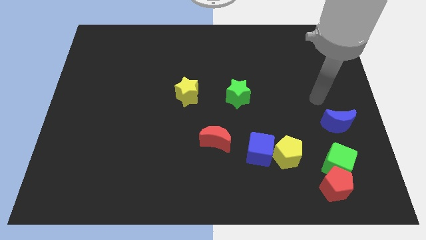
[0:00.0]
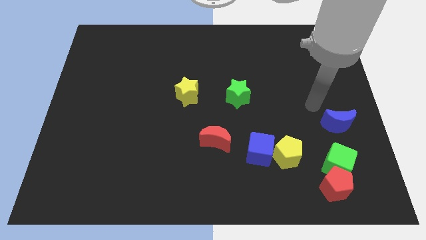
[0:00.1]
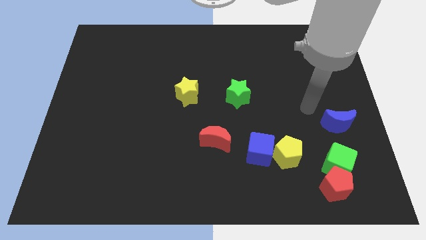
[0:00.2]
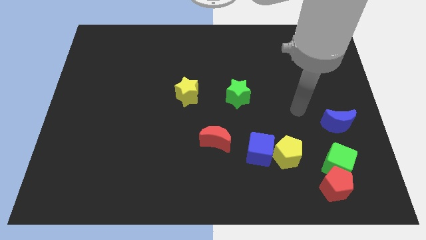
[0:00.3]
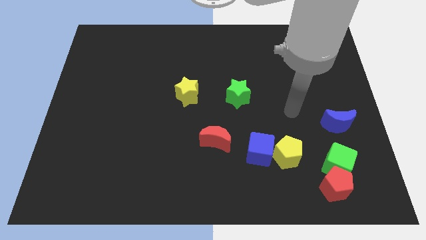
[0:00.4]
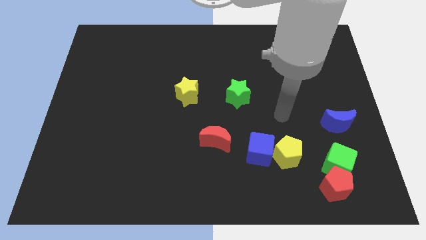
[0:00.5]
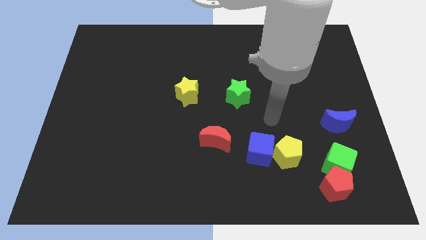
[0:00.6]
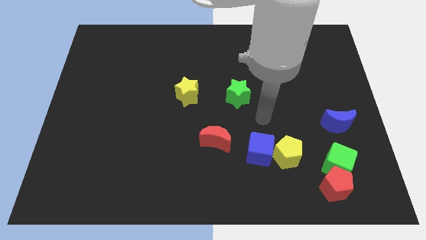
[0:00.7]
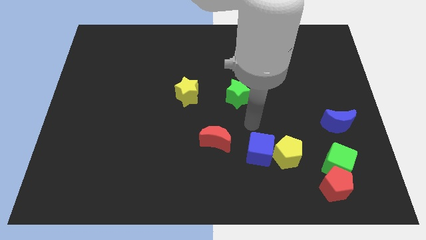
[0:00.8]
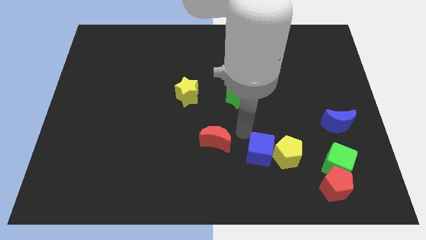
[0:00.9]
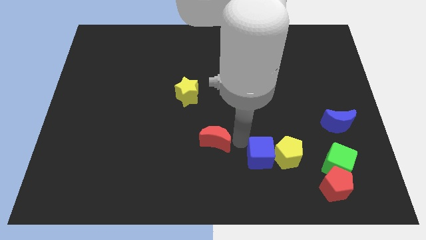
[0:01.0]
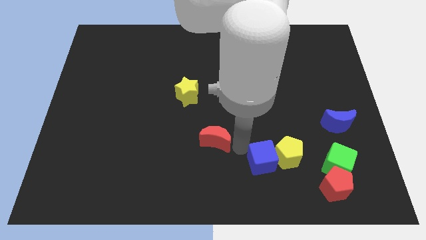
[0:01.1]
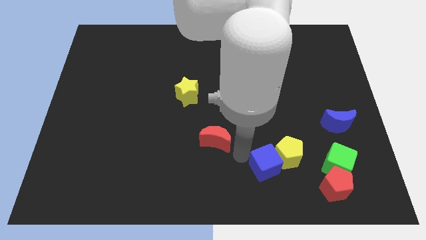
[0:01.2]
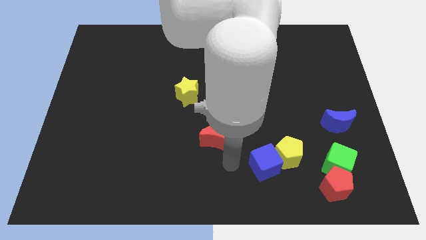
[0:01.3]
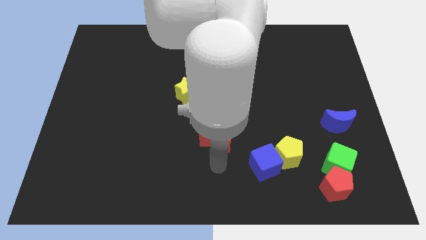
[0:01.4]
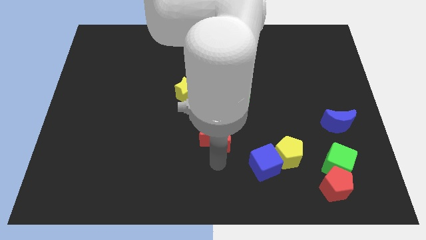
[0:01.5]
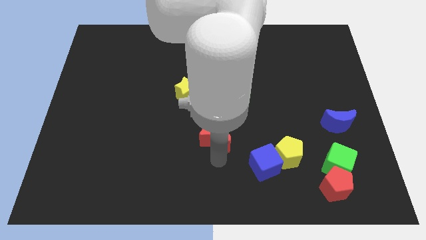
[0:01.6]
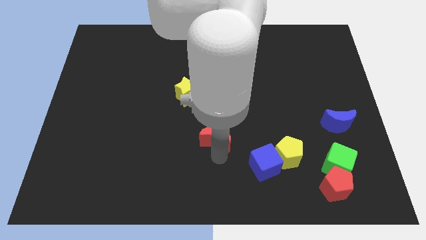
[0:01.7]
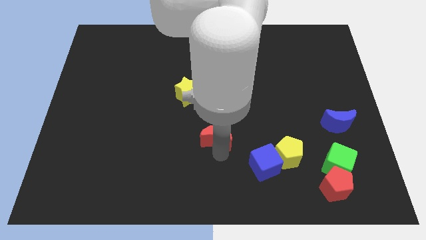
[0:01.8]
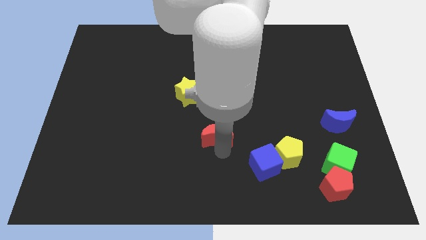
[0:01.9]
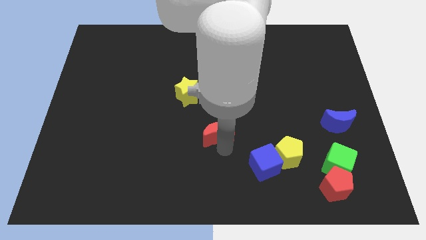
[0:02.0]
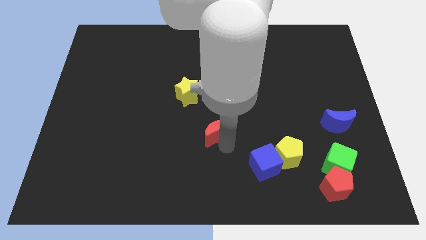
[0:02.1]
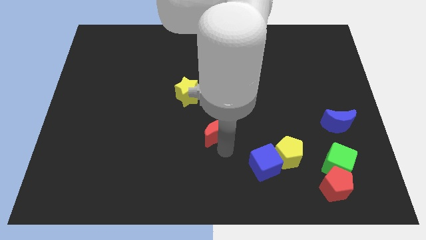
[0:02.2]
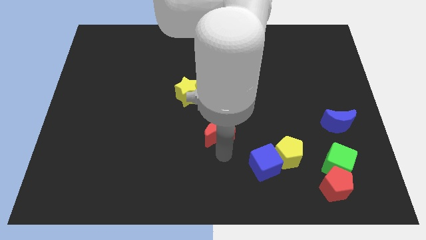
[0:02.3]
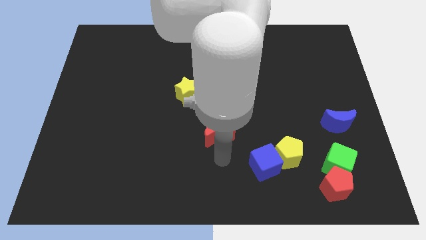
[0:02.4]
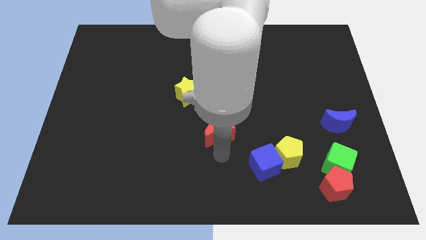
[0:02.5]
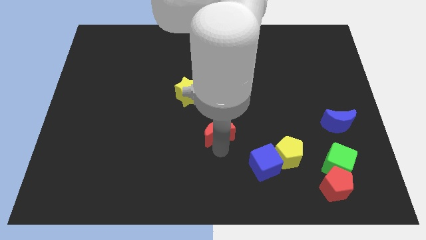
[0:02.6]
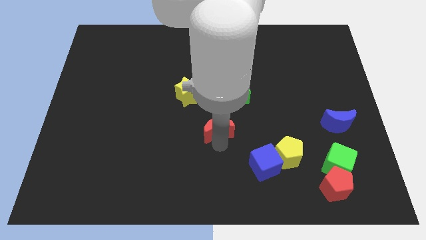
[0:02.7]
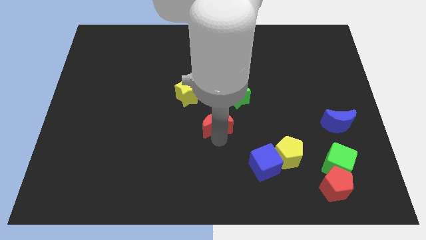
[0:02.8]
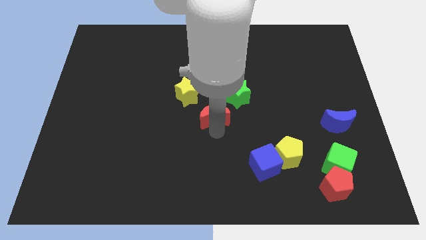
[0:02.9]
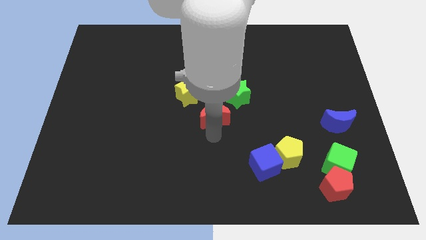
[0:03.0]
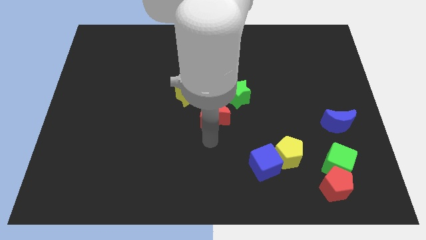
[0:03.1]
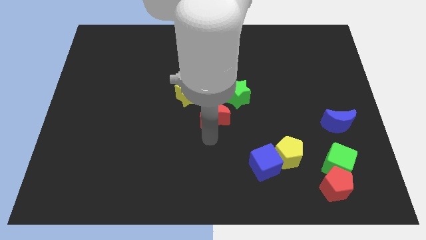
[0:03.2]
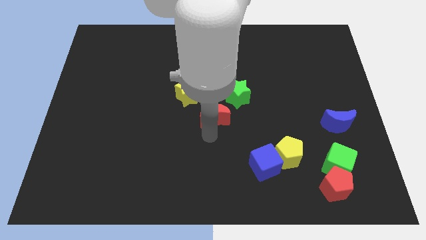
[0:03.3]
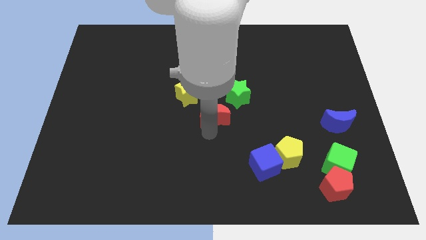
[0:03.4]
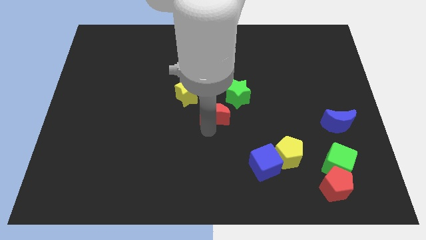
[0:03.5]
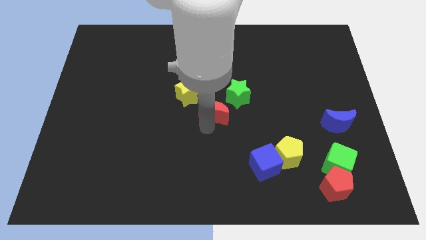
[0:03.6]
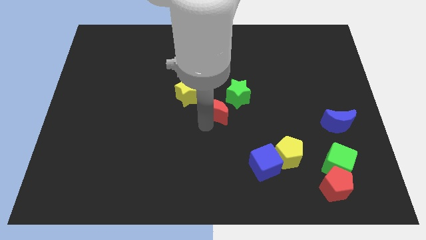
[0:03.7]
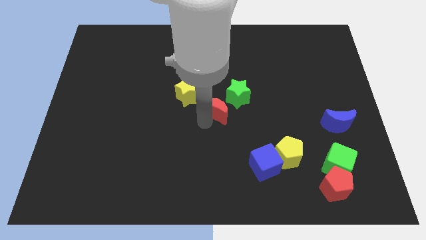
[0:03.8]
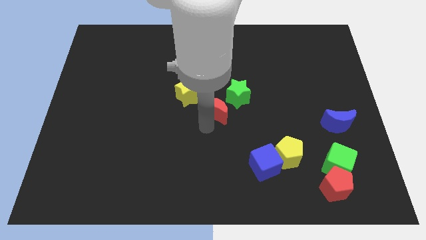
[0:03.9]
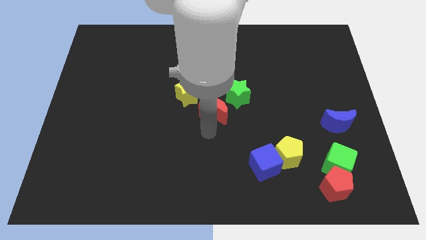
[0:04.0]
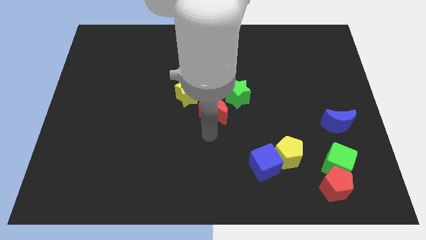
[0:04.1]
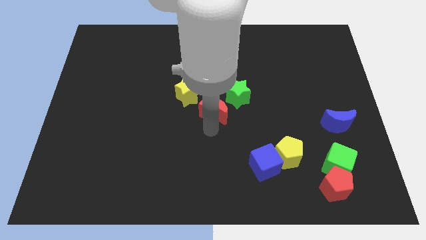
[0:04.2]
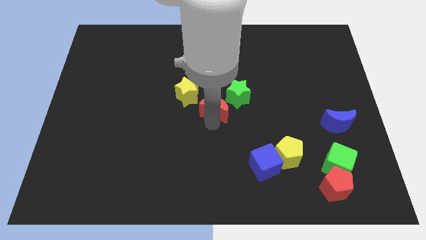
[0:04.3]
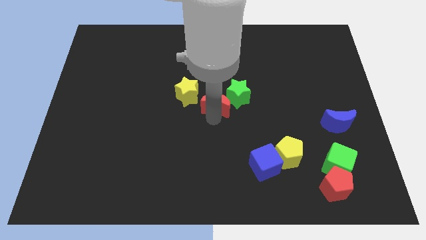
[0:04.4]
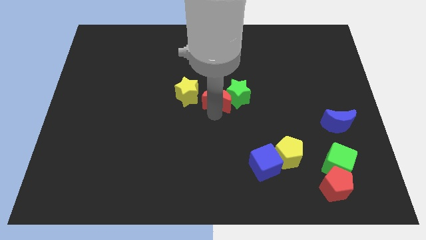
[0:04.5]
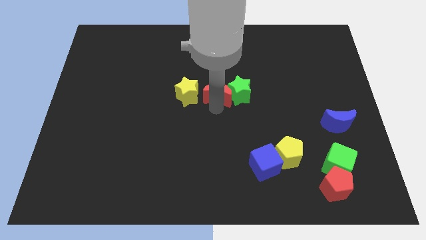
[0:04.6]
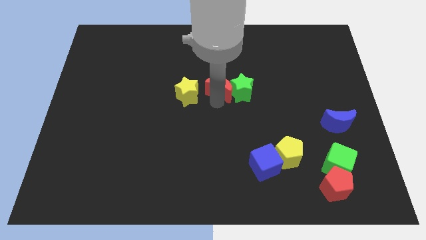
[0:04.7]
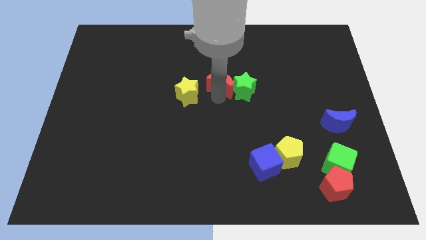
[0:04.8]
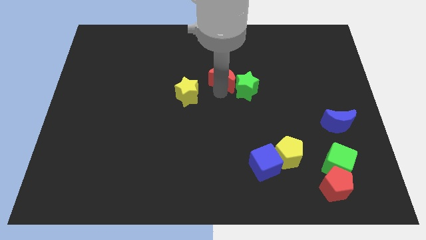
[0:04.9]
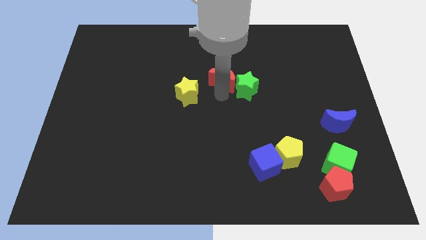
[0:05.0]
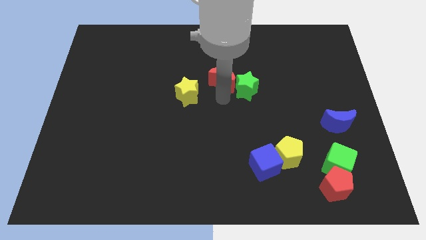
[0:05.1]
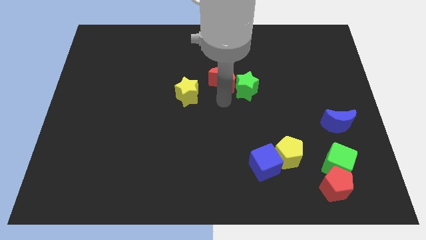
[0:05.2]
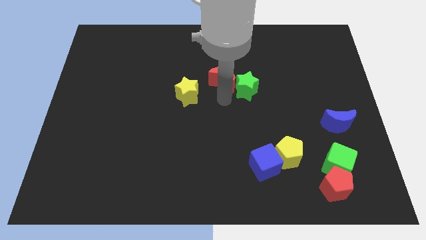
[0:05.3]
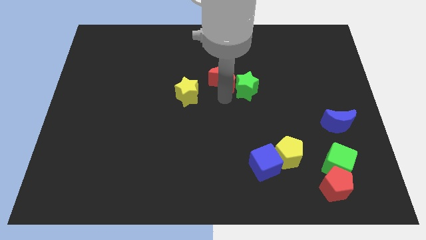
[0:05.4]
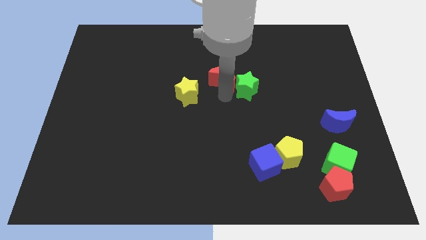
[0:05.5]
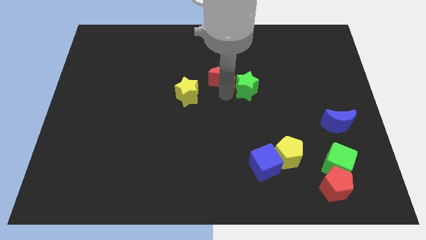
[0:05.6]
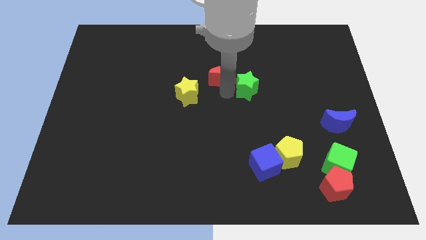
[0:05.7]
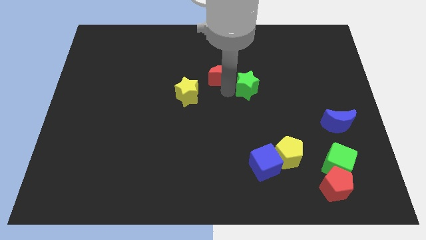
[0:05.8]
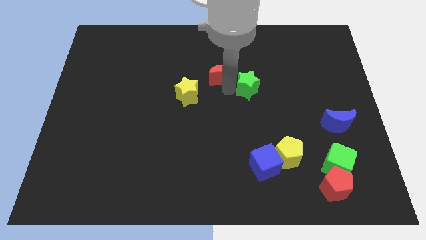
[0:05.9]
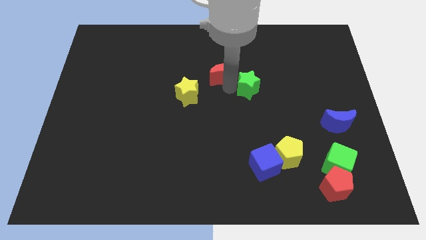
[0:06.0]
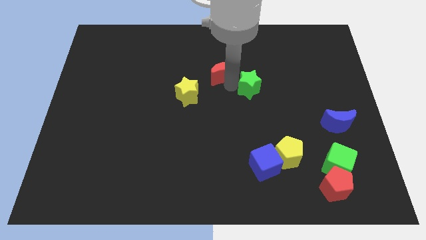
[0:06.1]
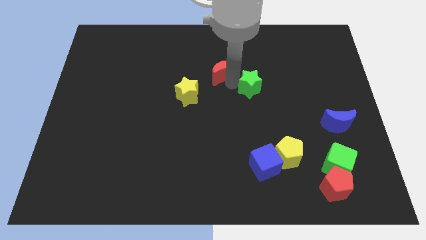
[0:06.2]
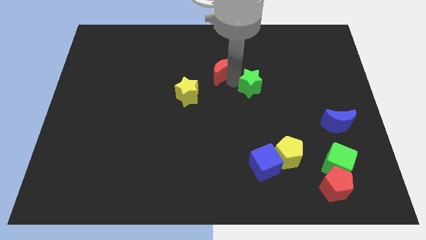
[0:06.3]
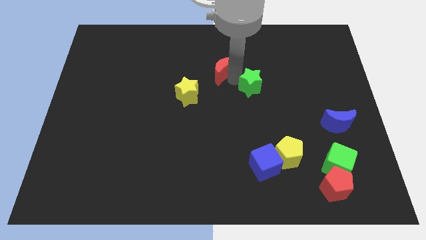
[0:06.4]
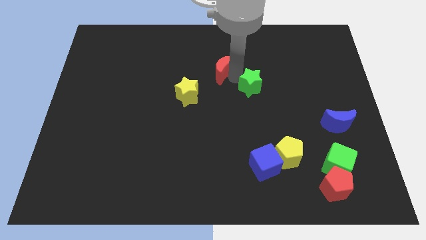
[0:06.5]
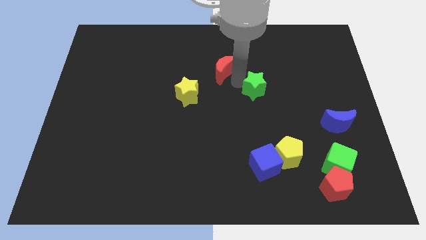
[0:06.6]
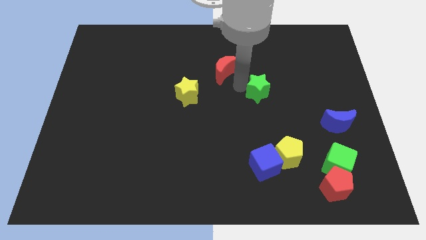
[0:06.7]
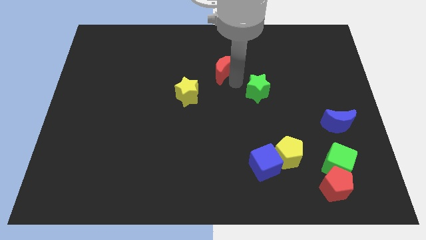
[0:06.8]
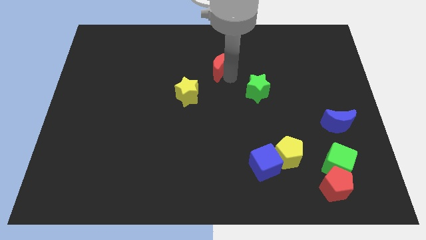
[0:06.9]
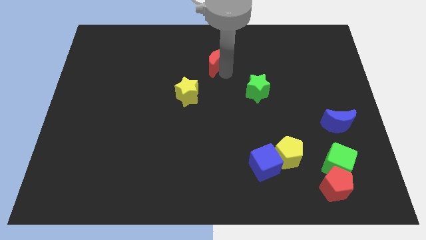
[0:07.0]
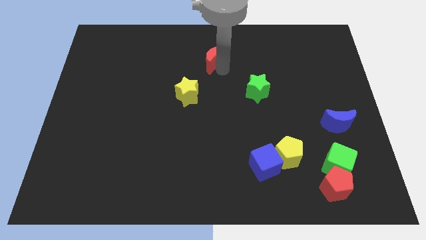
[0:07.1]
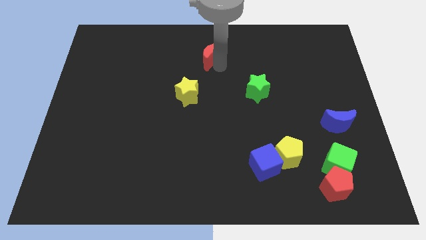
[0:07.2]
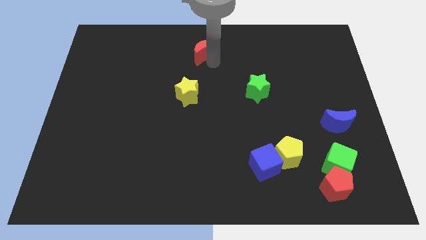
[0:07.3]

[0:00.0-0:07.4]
push the red moon to the top side
